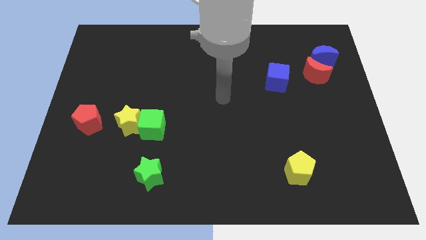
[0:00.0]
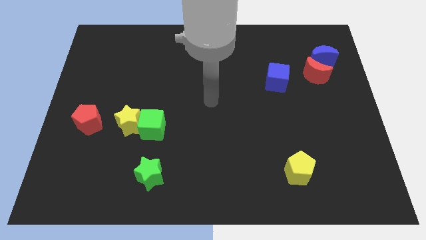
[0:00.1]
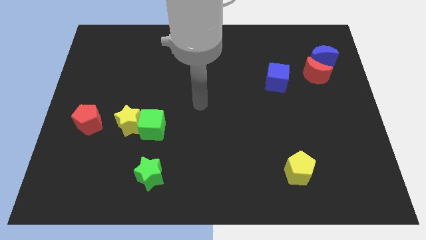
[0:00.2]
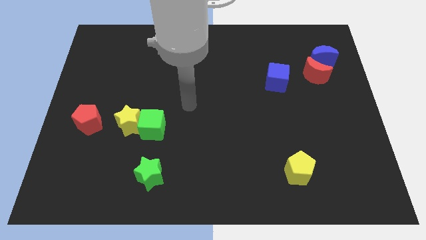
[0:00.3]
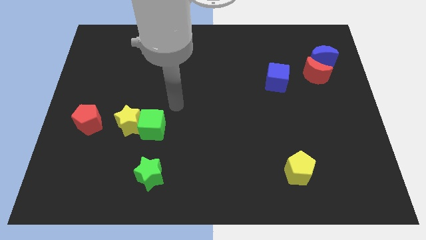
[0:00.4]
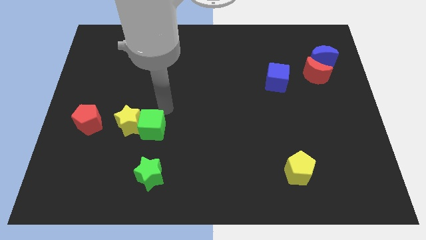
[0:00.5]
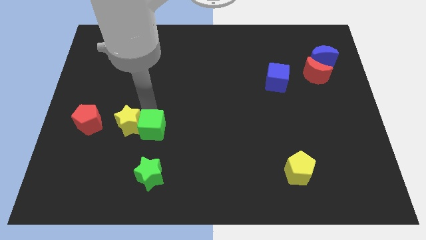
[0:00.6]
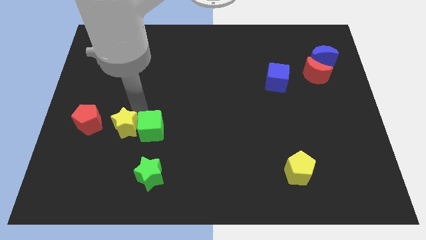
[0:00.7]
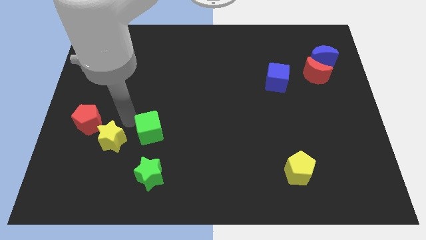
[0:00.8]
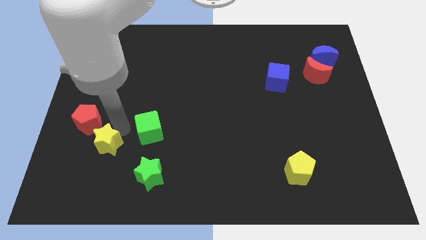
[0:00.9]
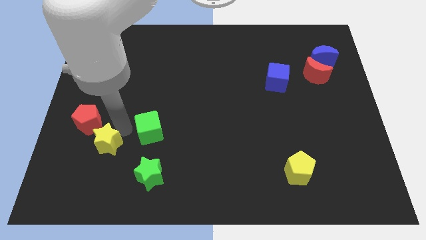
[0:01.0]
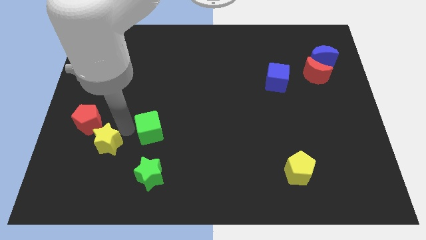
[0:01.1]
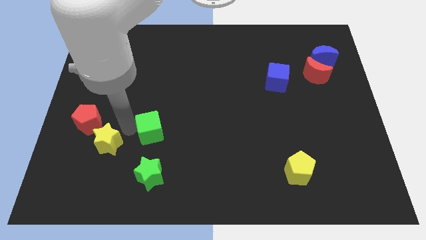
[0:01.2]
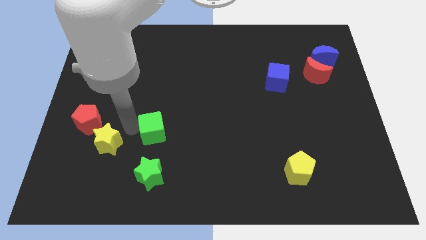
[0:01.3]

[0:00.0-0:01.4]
move the green cube away from the yellow star

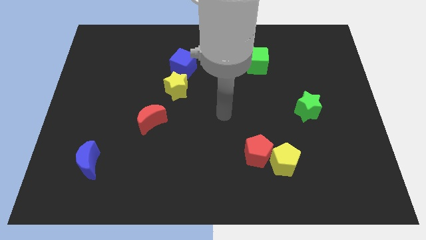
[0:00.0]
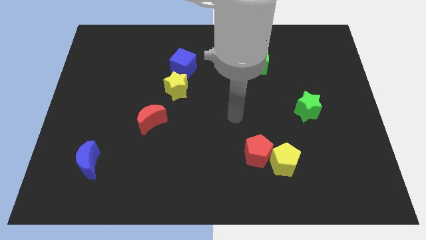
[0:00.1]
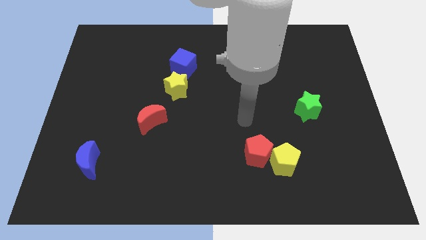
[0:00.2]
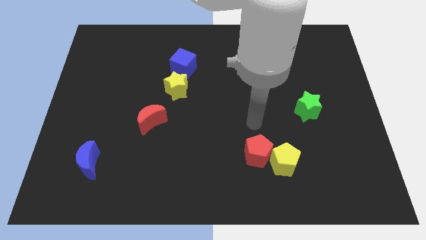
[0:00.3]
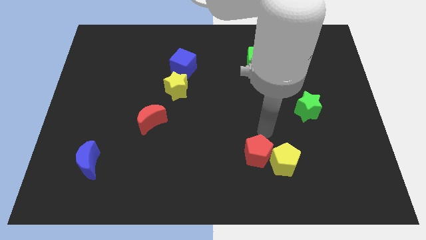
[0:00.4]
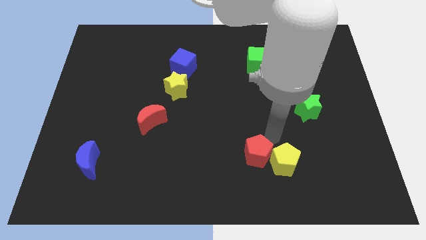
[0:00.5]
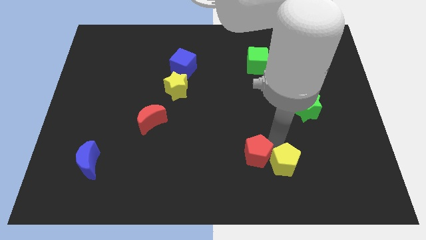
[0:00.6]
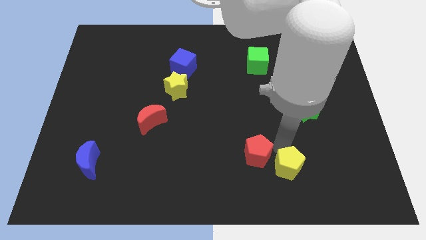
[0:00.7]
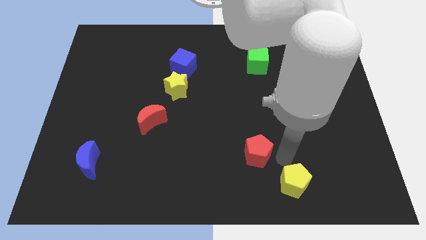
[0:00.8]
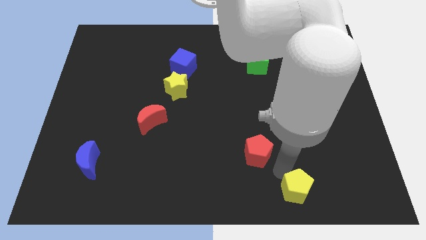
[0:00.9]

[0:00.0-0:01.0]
move the red pentagon away from the yellow pentagon

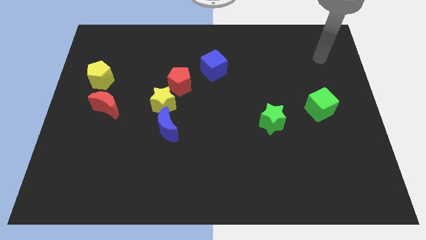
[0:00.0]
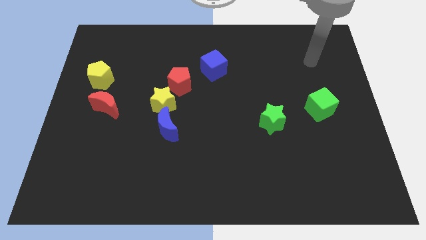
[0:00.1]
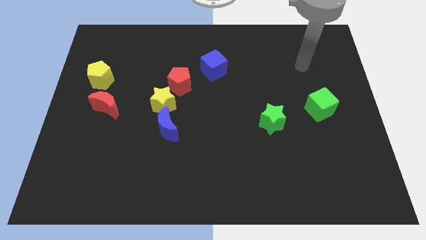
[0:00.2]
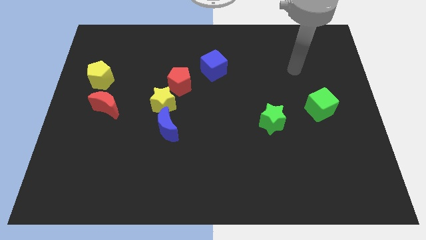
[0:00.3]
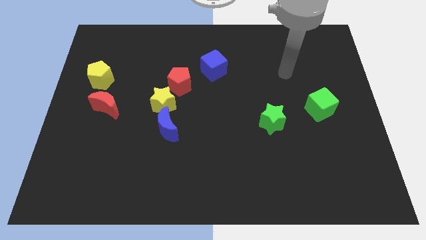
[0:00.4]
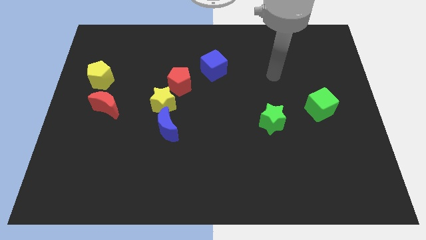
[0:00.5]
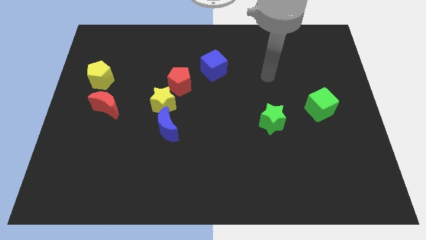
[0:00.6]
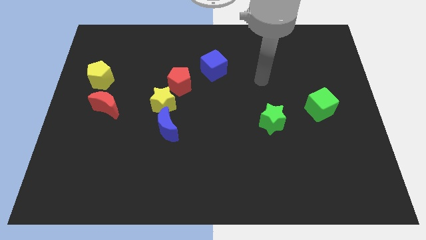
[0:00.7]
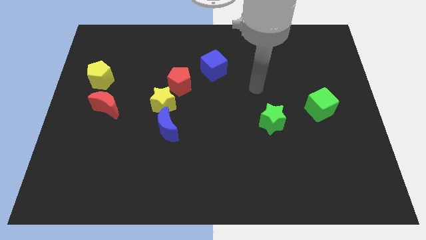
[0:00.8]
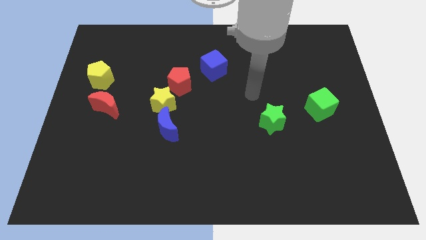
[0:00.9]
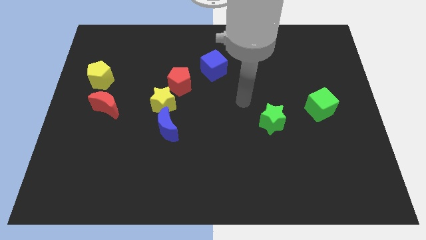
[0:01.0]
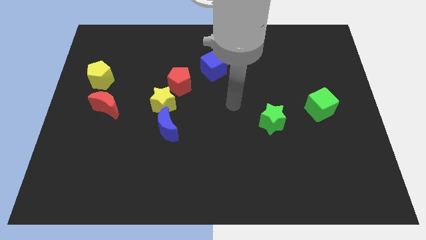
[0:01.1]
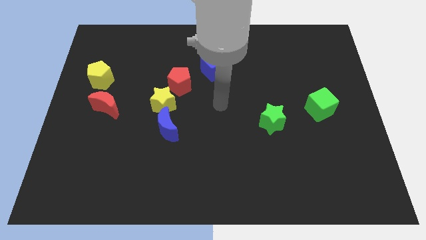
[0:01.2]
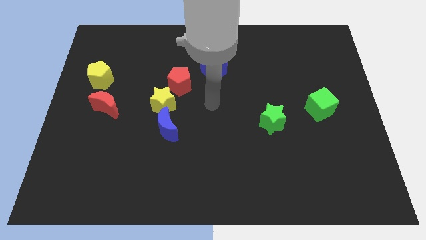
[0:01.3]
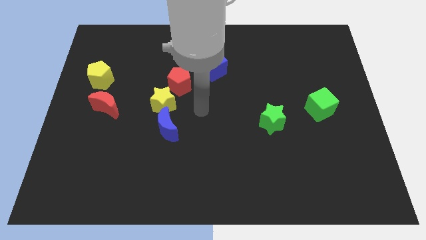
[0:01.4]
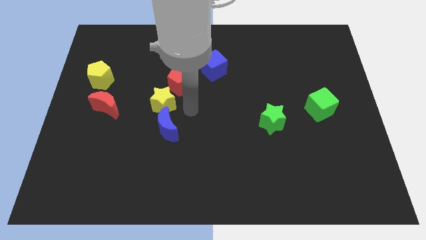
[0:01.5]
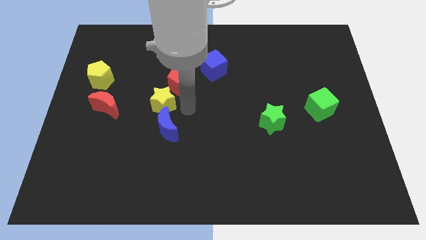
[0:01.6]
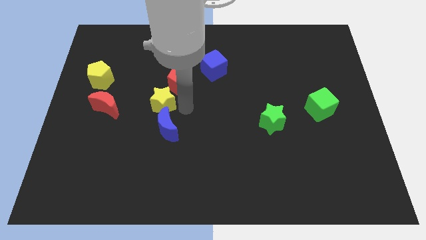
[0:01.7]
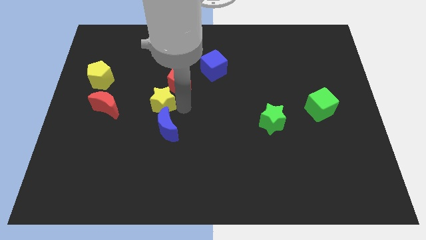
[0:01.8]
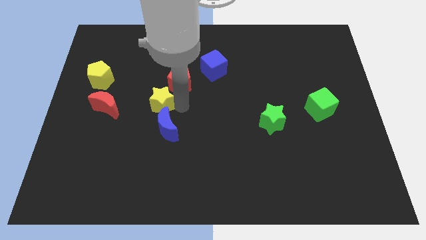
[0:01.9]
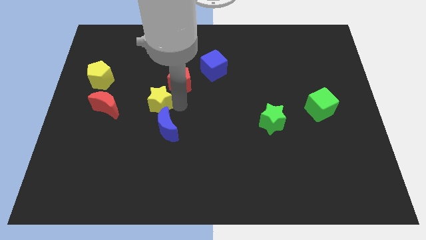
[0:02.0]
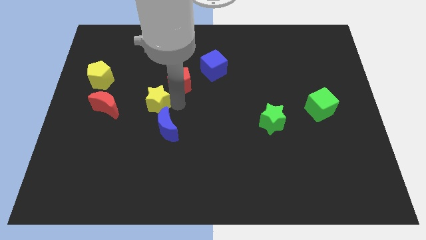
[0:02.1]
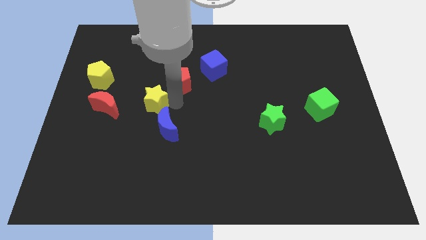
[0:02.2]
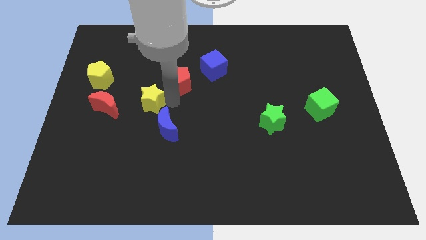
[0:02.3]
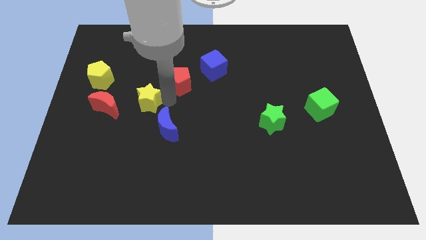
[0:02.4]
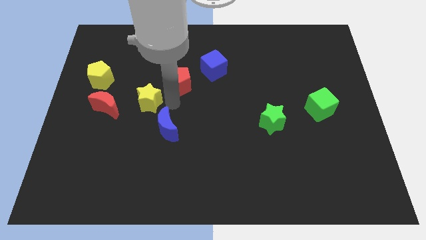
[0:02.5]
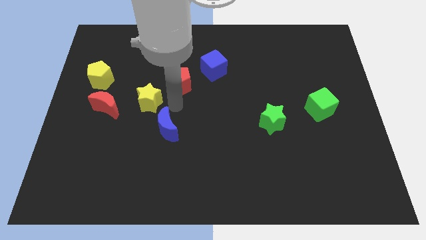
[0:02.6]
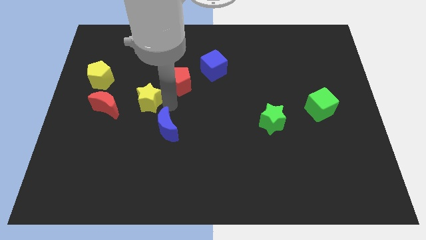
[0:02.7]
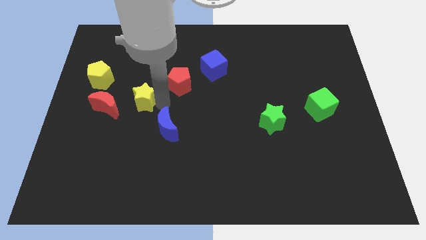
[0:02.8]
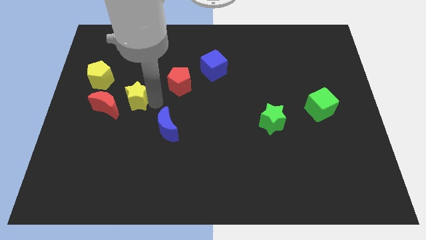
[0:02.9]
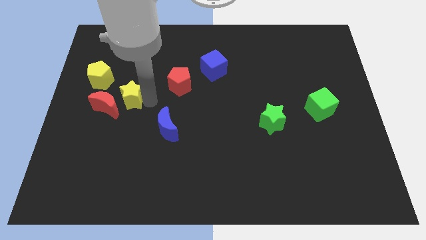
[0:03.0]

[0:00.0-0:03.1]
pull the yellow star apart from the red pentagon and blue moon

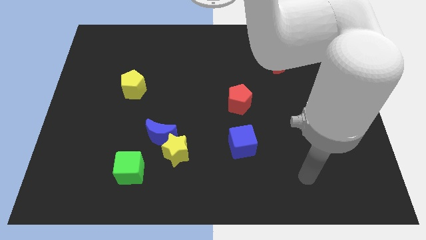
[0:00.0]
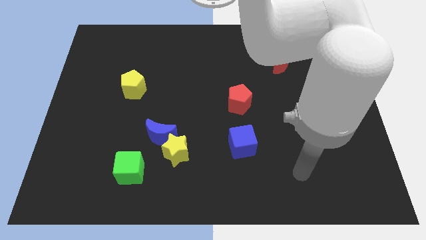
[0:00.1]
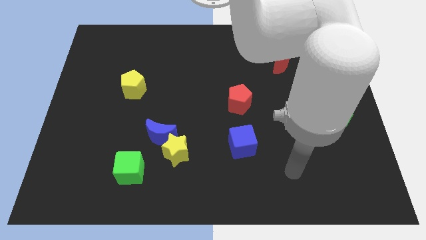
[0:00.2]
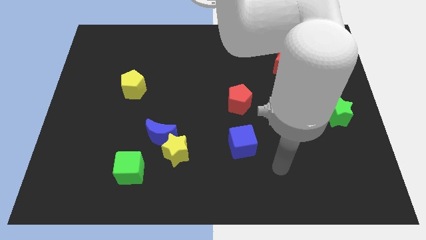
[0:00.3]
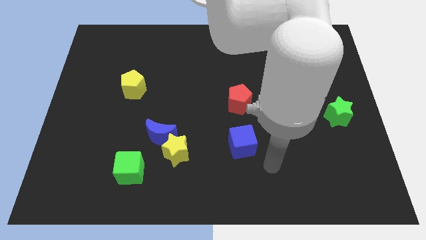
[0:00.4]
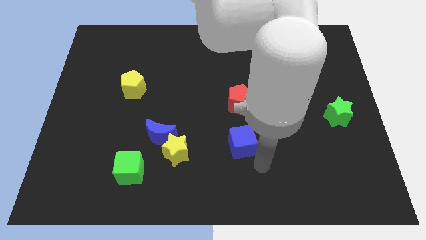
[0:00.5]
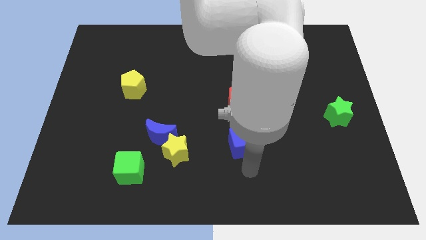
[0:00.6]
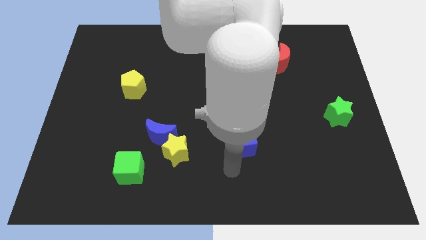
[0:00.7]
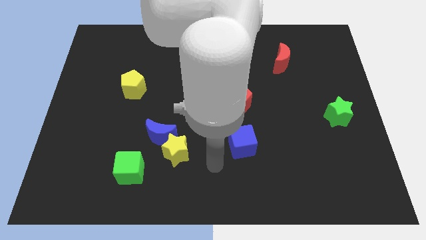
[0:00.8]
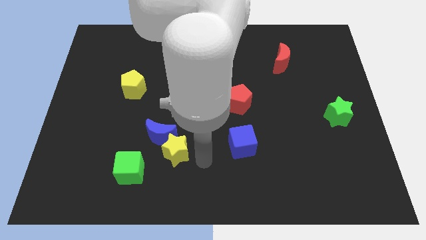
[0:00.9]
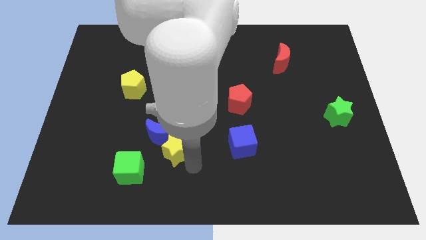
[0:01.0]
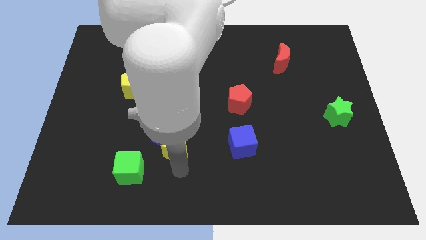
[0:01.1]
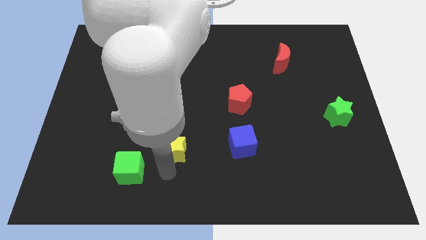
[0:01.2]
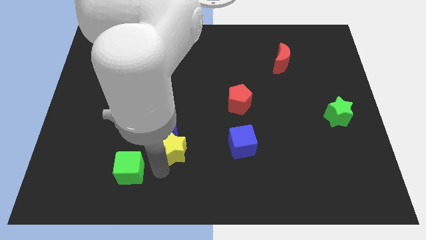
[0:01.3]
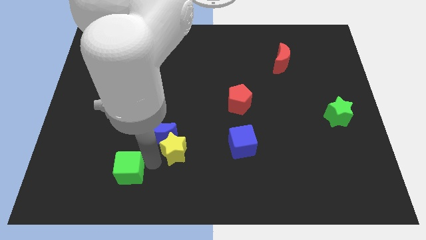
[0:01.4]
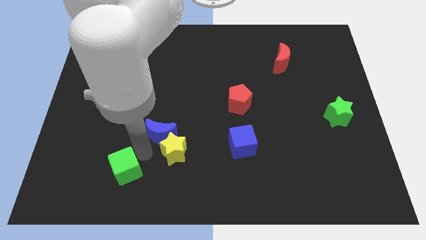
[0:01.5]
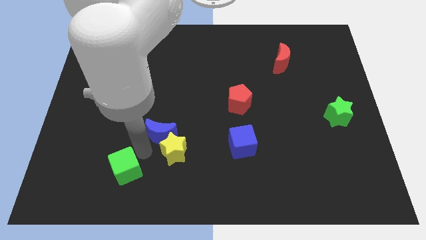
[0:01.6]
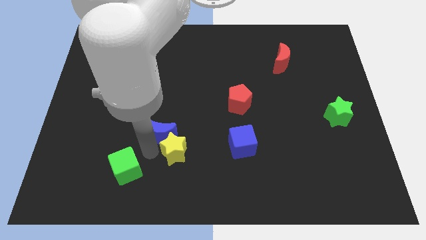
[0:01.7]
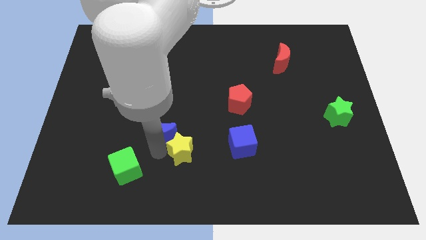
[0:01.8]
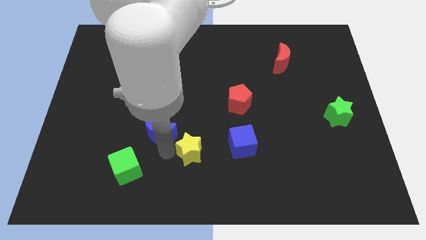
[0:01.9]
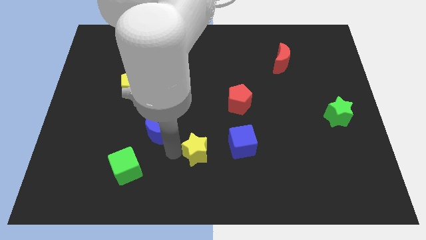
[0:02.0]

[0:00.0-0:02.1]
separate the yellow star from the blue moon and green cube

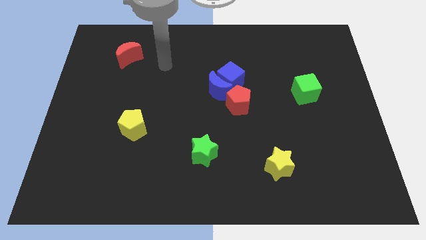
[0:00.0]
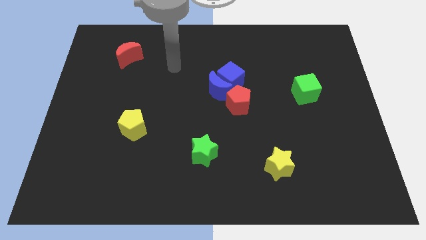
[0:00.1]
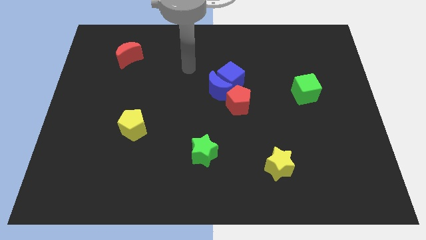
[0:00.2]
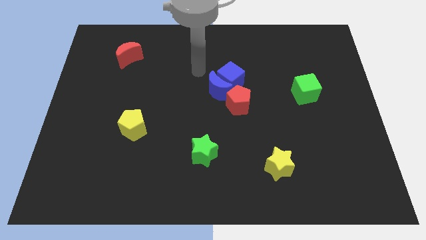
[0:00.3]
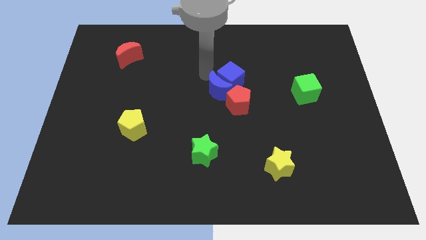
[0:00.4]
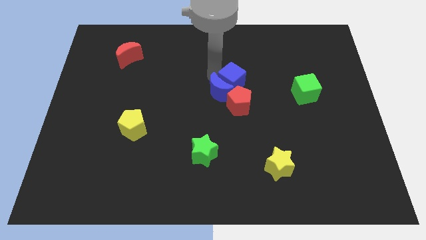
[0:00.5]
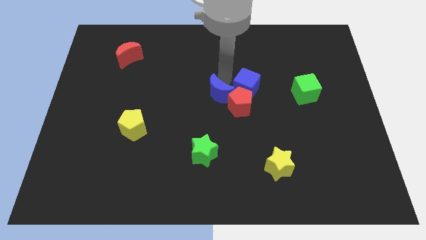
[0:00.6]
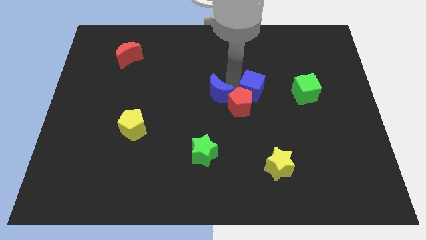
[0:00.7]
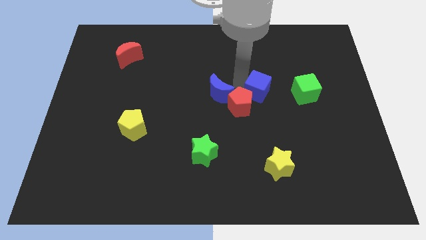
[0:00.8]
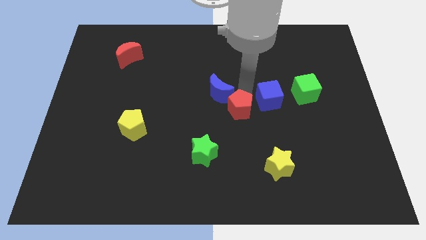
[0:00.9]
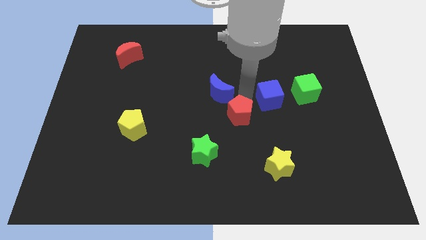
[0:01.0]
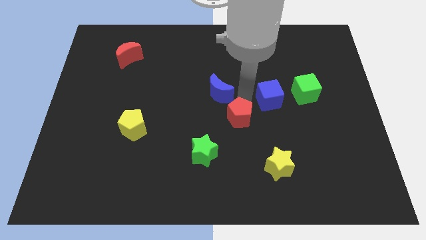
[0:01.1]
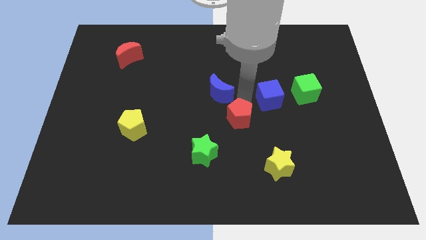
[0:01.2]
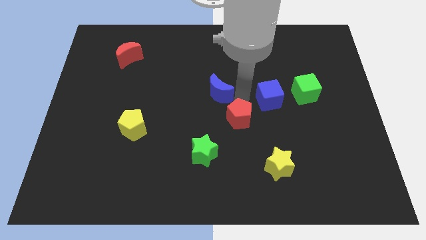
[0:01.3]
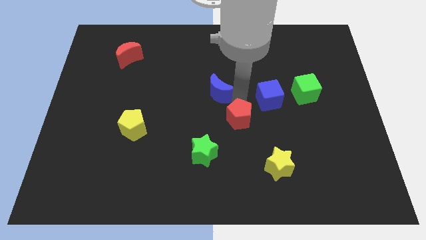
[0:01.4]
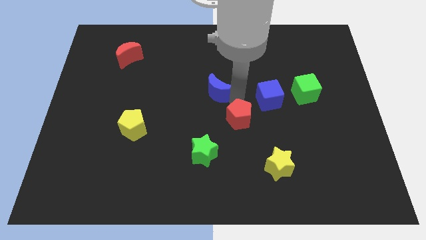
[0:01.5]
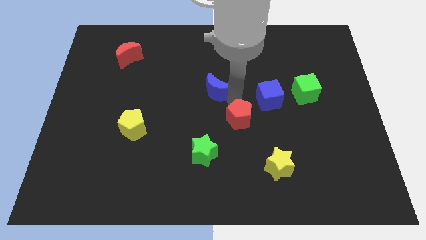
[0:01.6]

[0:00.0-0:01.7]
pull the blue moon apart from the blue cube and red pentagon

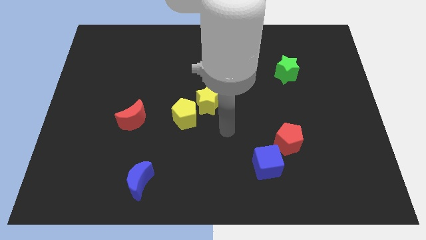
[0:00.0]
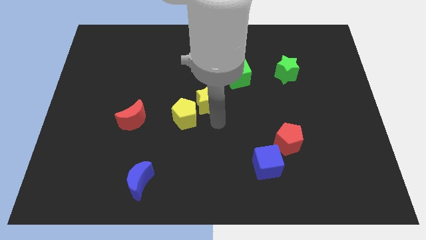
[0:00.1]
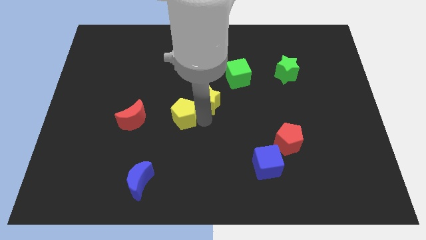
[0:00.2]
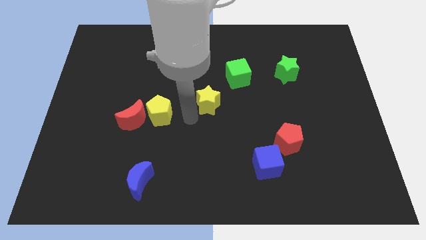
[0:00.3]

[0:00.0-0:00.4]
separate the yellow star from the yellow pentagon
